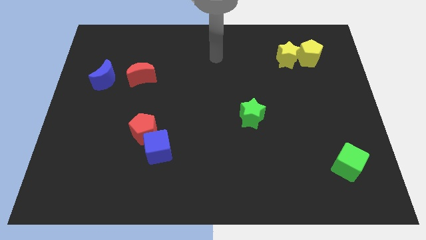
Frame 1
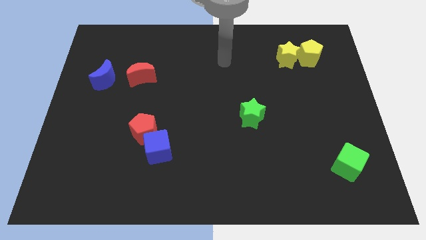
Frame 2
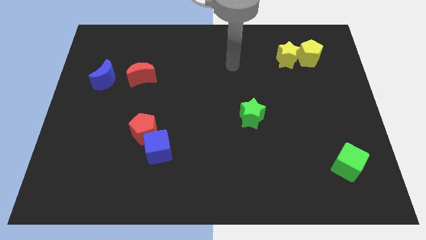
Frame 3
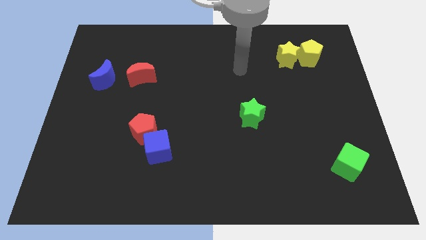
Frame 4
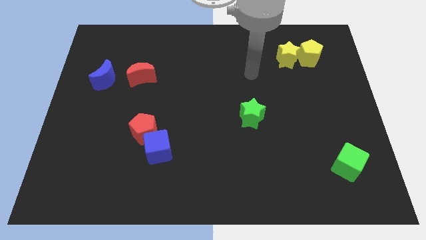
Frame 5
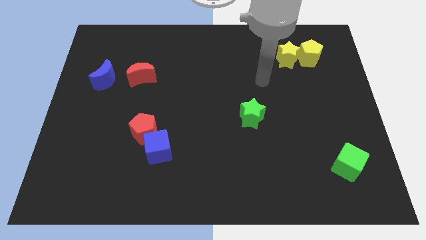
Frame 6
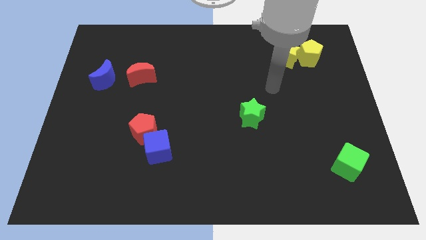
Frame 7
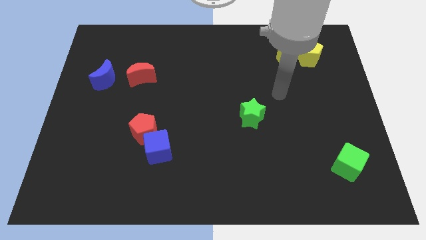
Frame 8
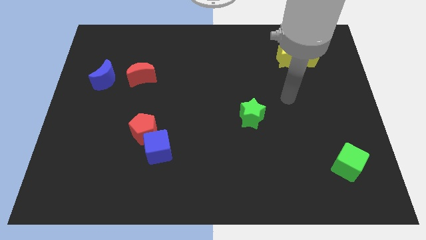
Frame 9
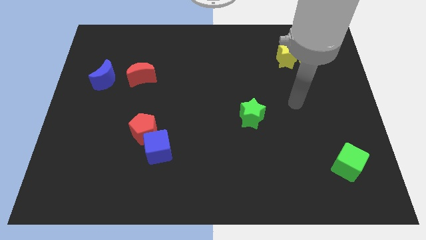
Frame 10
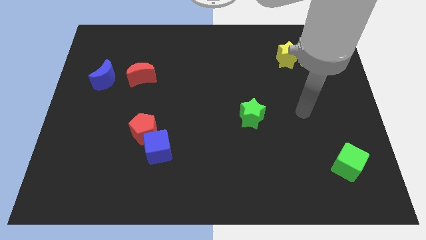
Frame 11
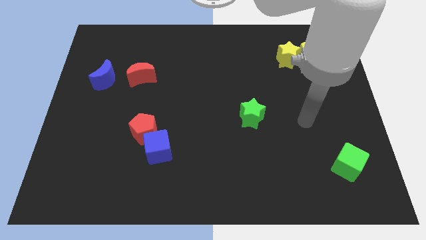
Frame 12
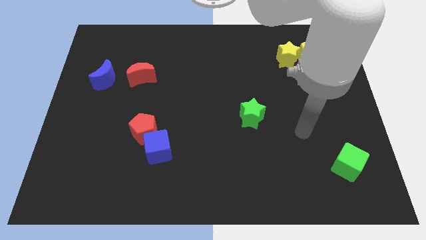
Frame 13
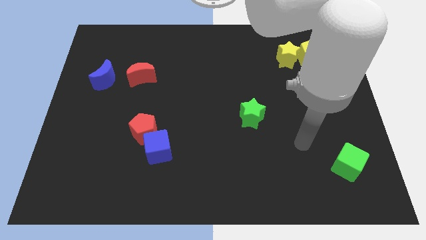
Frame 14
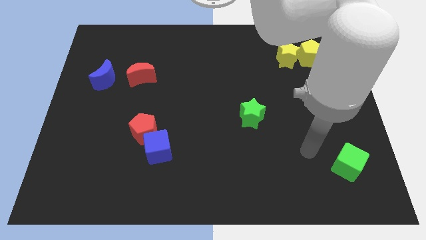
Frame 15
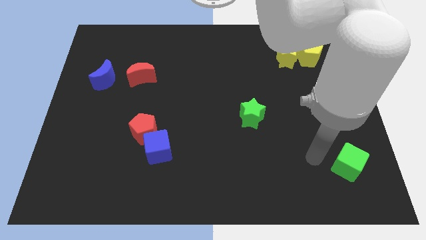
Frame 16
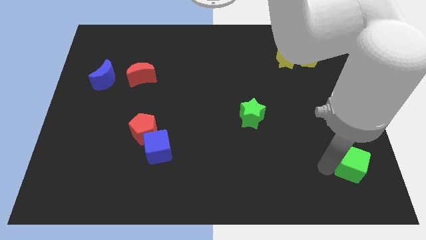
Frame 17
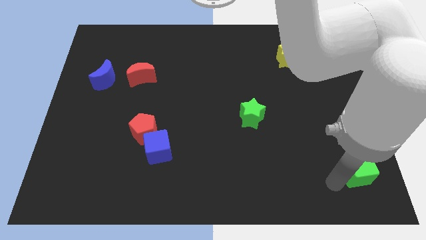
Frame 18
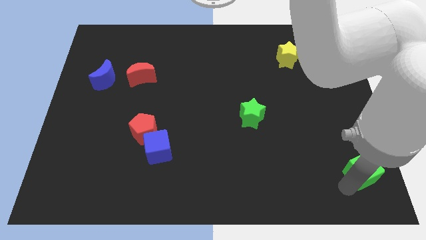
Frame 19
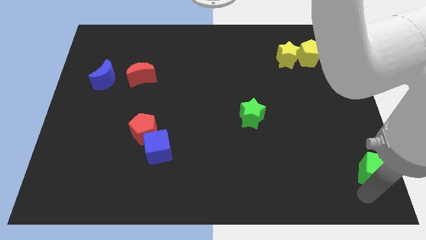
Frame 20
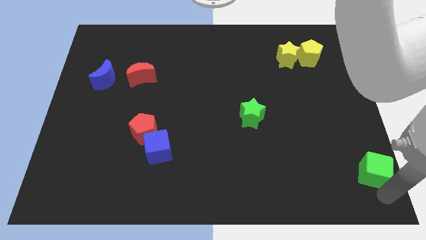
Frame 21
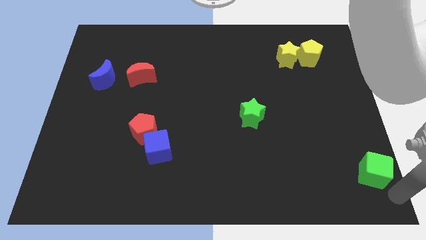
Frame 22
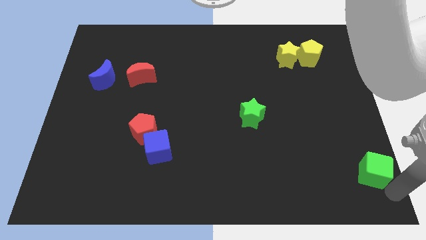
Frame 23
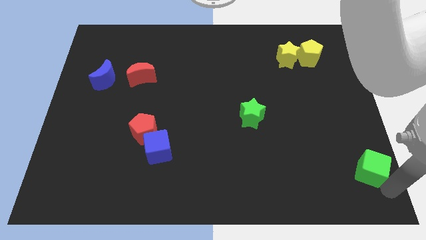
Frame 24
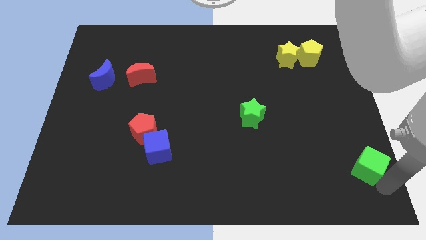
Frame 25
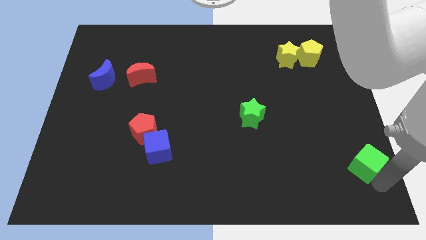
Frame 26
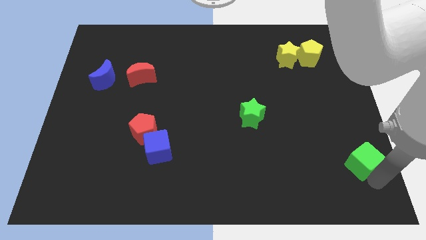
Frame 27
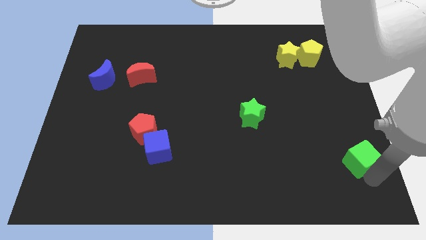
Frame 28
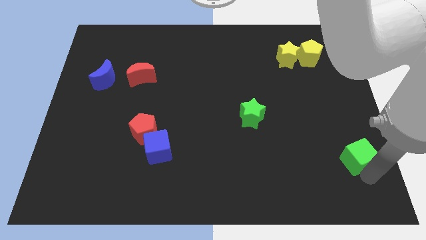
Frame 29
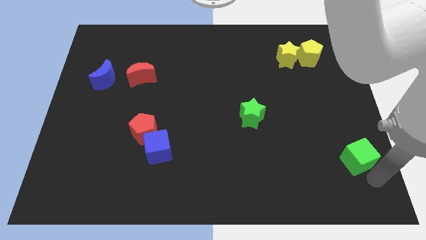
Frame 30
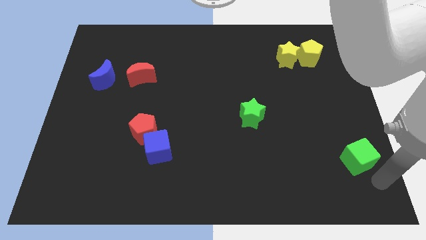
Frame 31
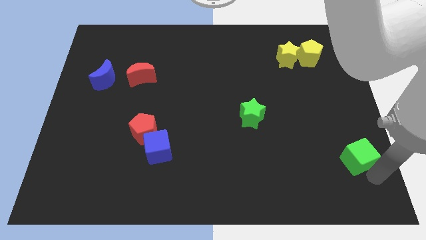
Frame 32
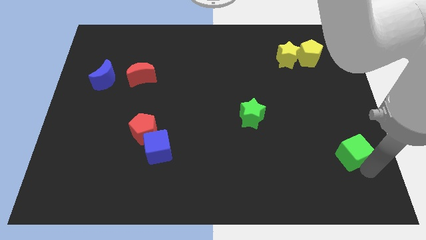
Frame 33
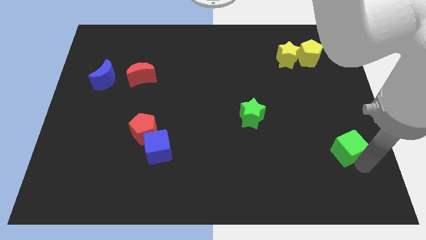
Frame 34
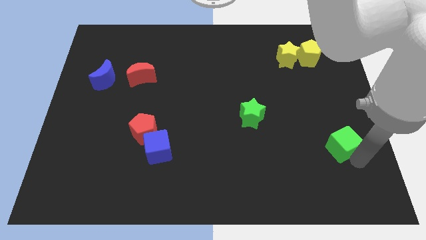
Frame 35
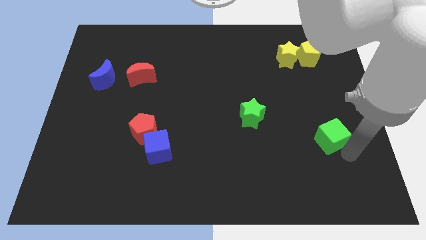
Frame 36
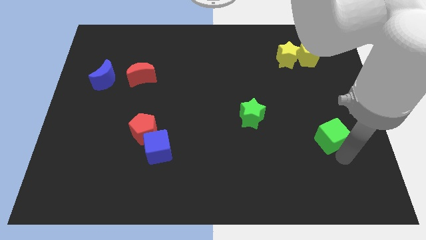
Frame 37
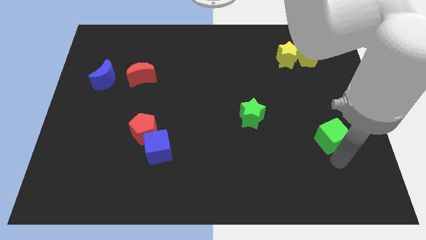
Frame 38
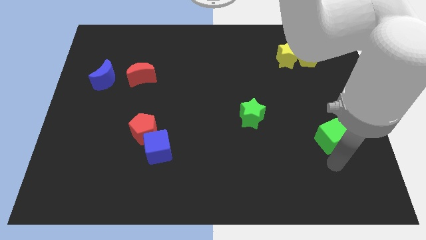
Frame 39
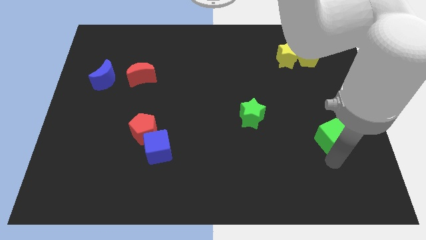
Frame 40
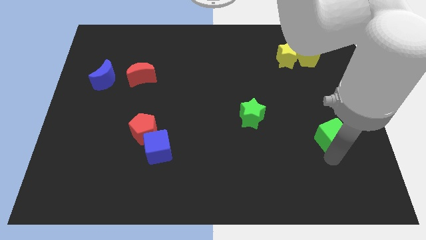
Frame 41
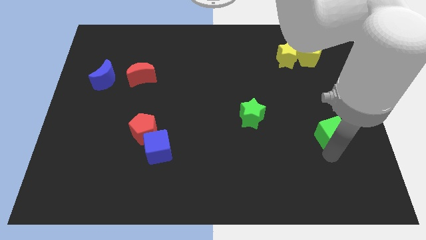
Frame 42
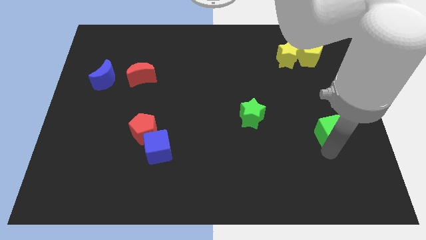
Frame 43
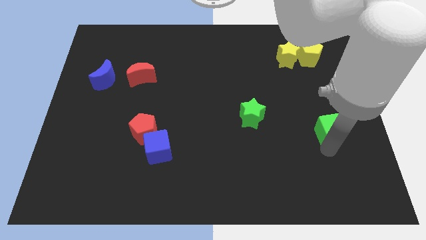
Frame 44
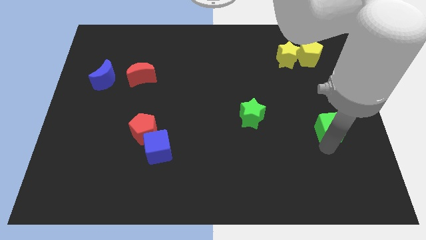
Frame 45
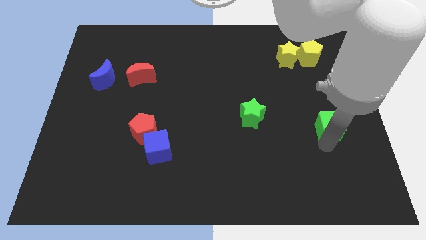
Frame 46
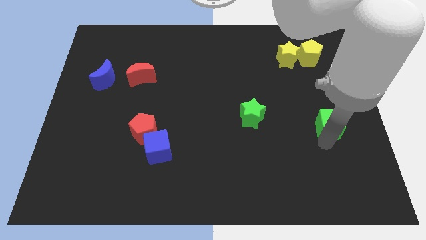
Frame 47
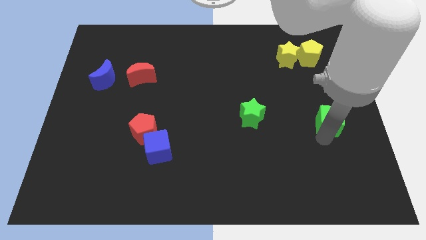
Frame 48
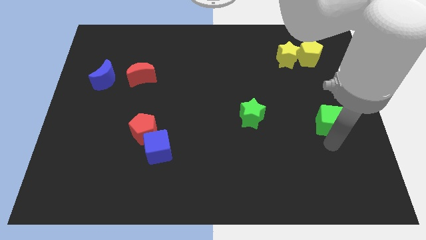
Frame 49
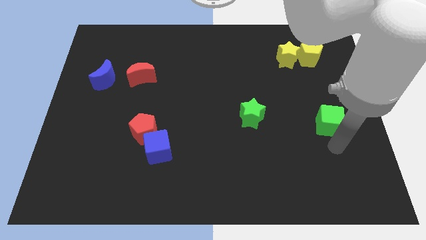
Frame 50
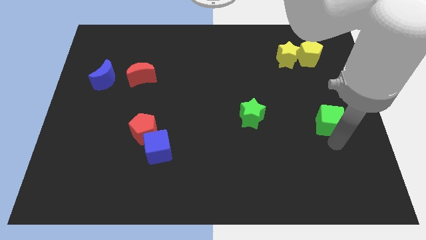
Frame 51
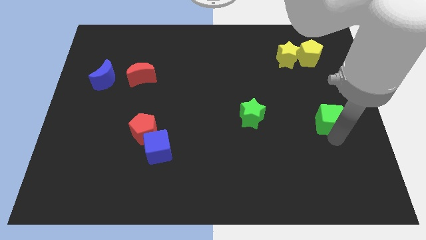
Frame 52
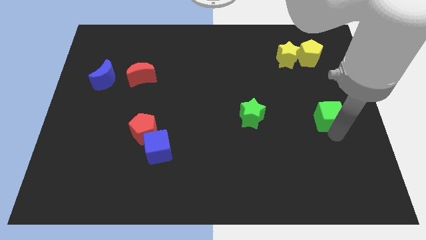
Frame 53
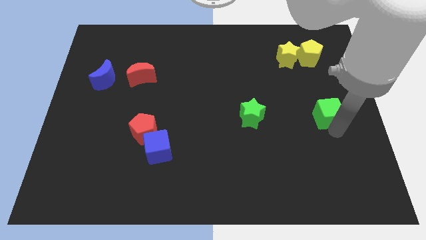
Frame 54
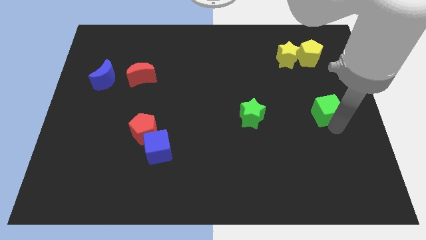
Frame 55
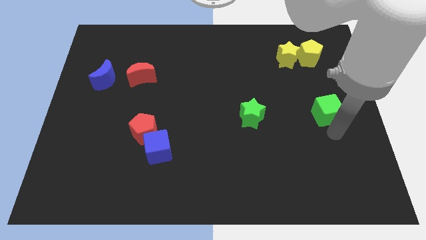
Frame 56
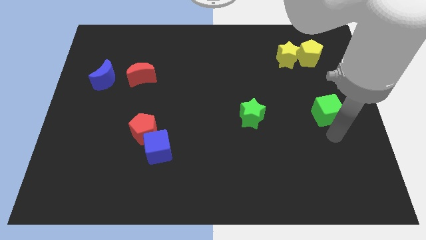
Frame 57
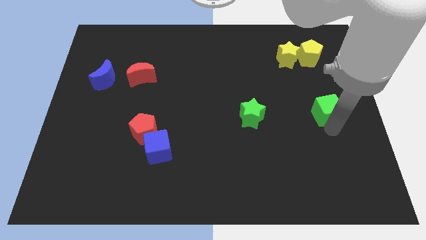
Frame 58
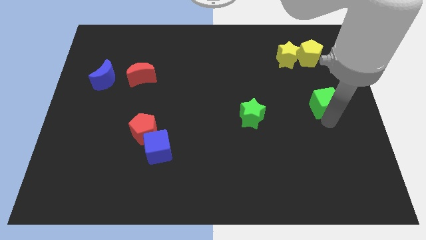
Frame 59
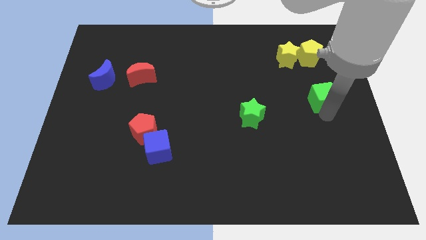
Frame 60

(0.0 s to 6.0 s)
push the green cube below the yellow pentagon

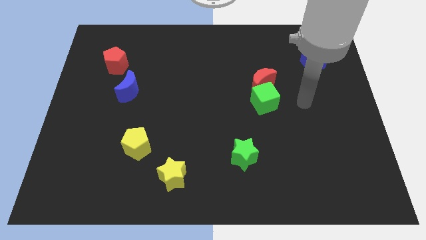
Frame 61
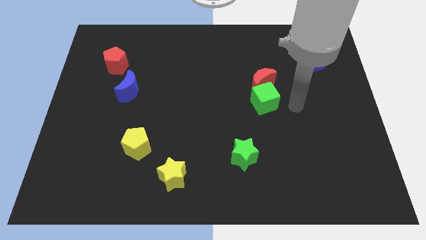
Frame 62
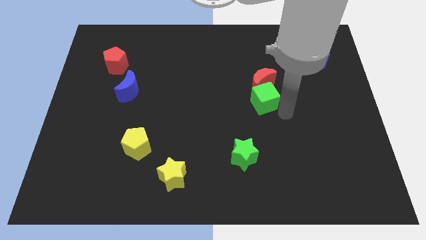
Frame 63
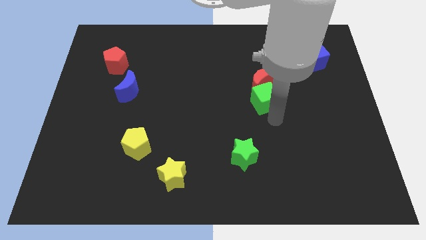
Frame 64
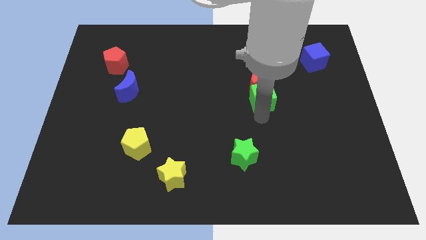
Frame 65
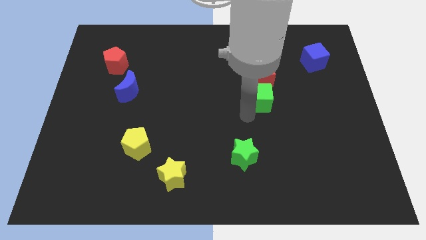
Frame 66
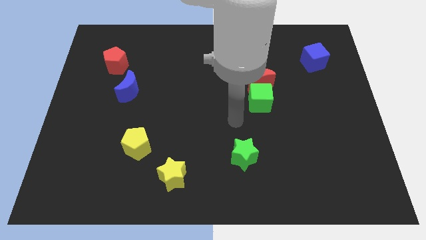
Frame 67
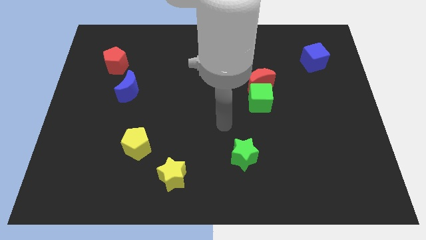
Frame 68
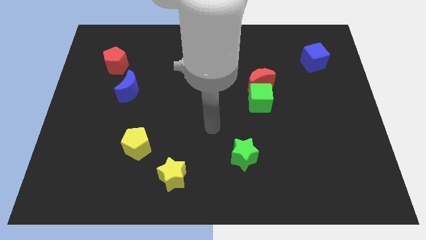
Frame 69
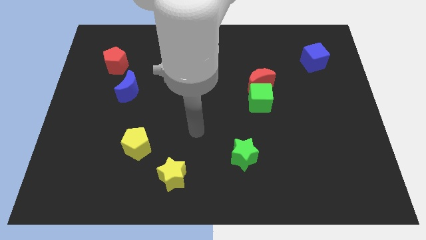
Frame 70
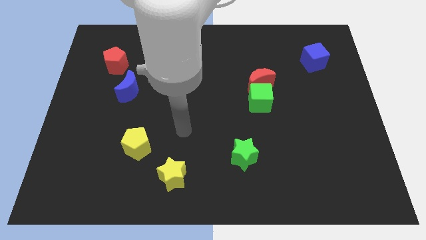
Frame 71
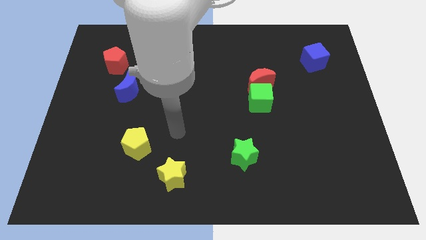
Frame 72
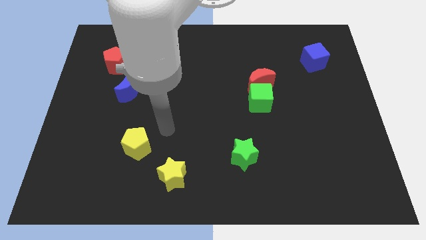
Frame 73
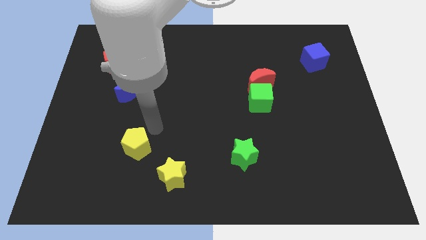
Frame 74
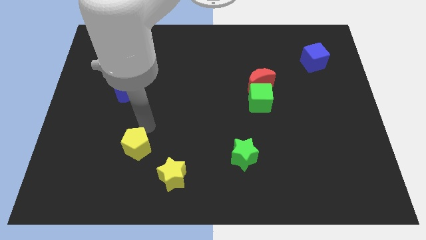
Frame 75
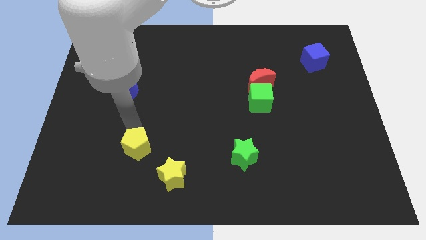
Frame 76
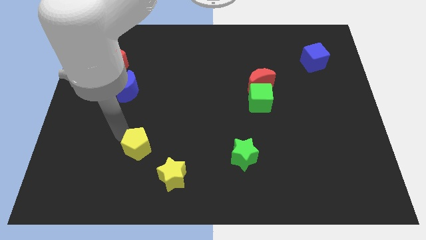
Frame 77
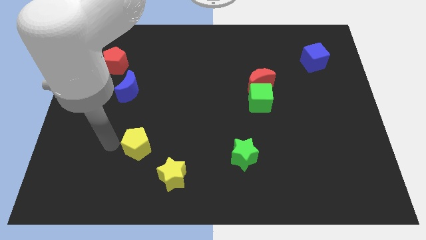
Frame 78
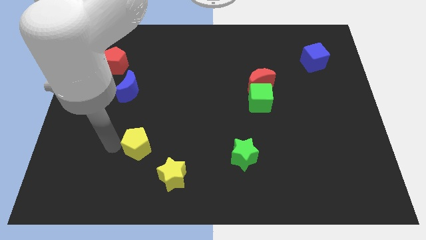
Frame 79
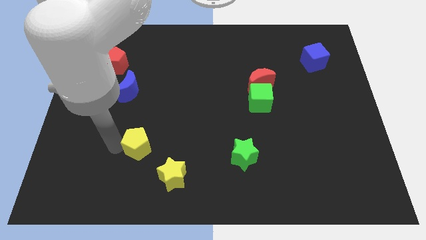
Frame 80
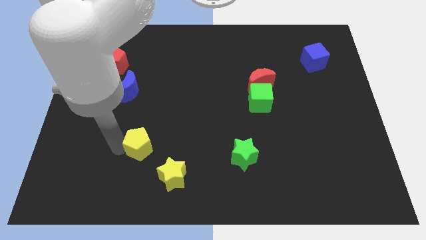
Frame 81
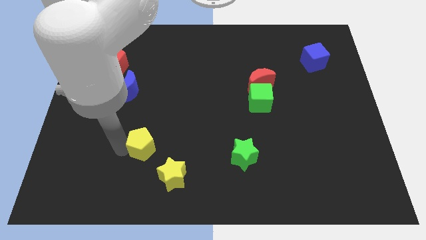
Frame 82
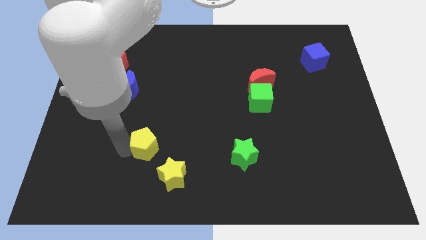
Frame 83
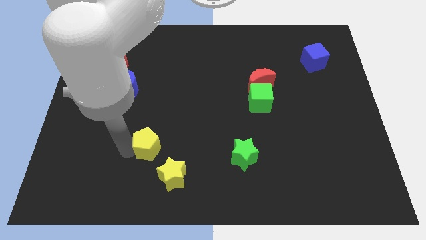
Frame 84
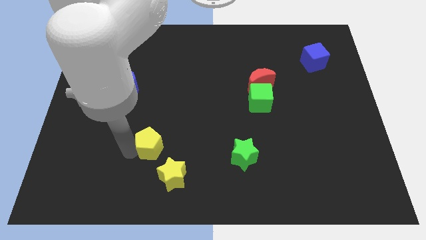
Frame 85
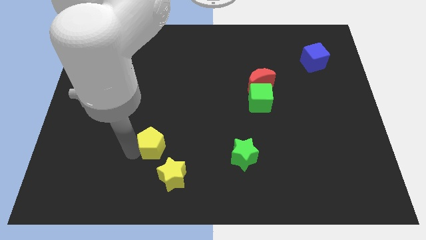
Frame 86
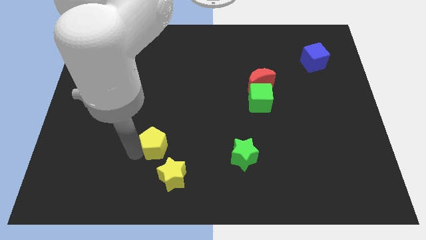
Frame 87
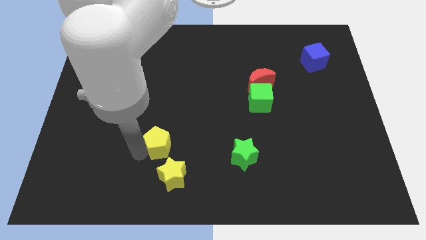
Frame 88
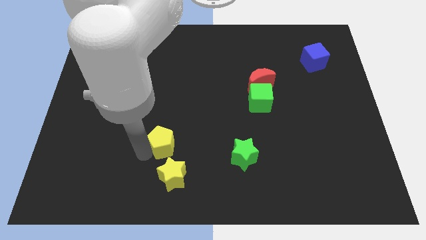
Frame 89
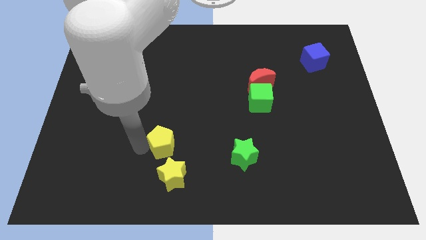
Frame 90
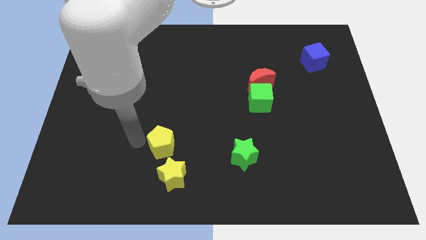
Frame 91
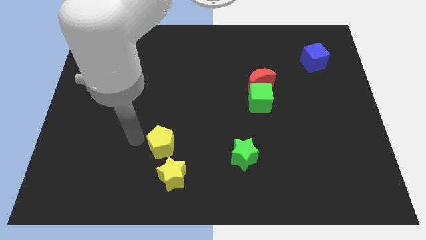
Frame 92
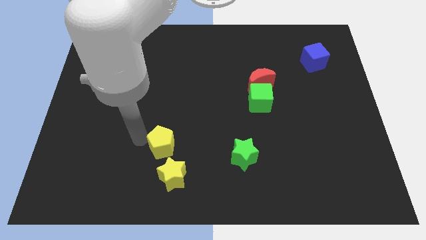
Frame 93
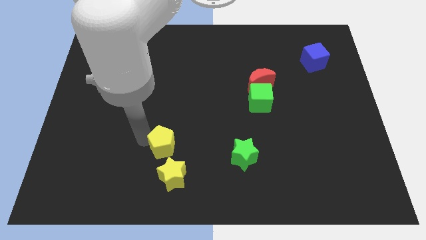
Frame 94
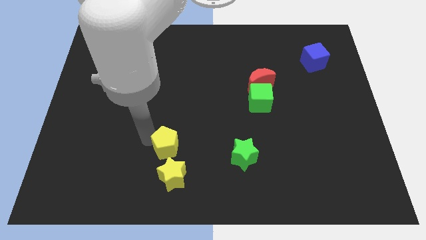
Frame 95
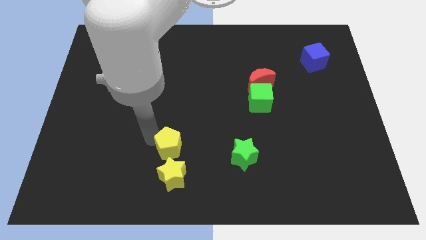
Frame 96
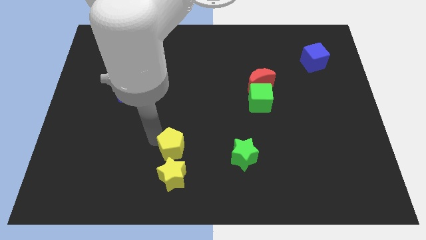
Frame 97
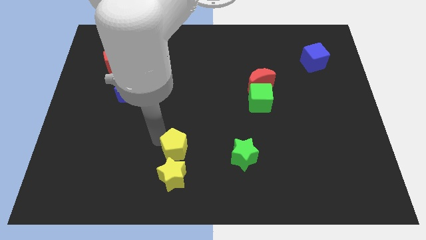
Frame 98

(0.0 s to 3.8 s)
slide the yellow pentagon to the top right side of the yellow star
